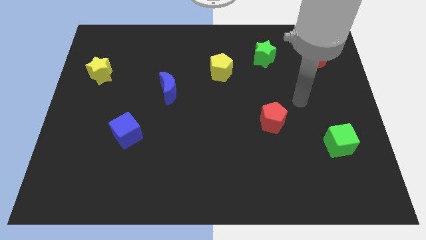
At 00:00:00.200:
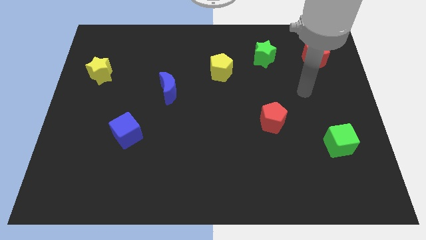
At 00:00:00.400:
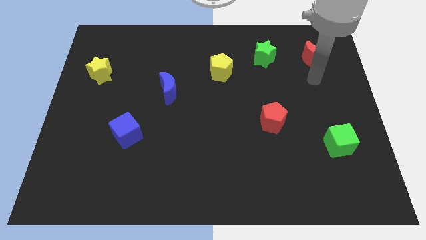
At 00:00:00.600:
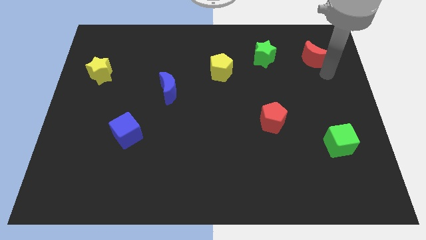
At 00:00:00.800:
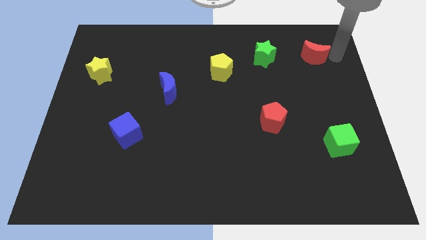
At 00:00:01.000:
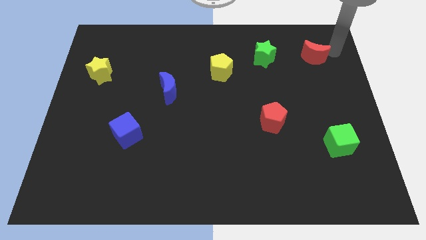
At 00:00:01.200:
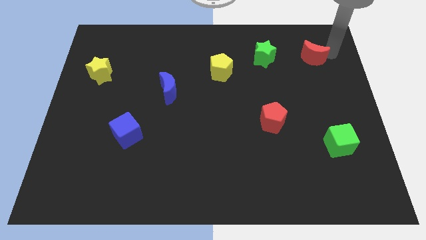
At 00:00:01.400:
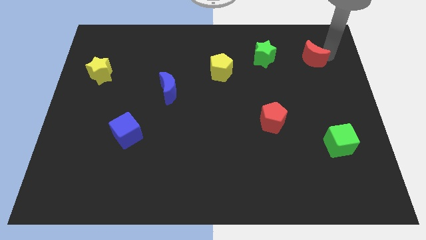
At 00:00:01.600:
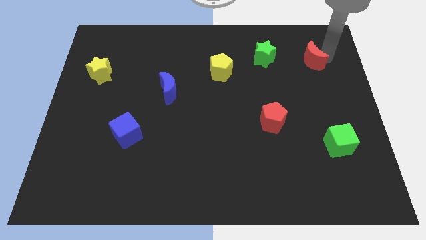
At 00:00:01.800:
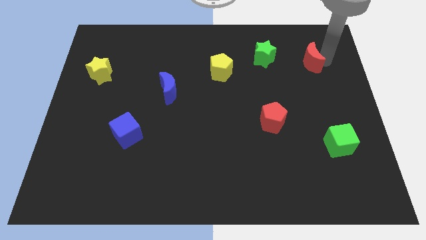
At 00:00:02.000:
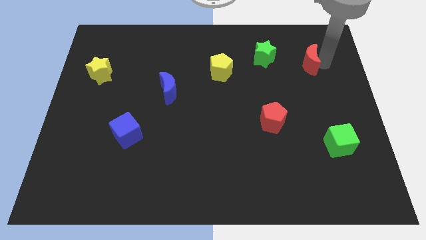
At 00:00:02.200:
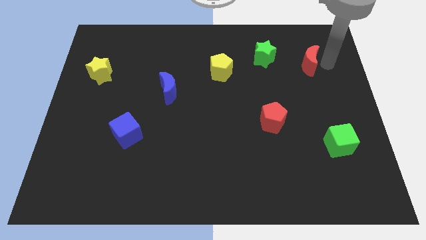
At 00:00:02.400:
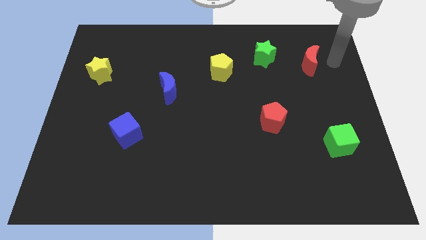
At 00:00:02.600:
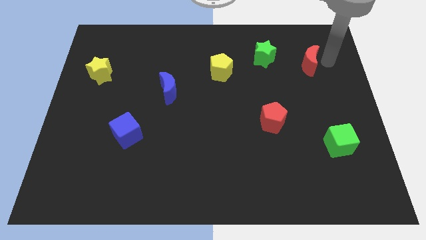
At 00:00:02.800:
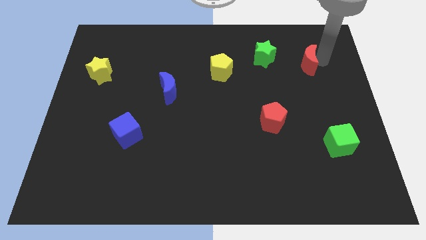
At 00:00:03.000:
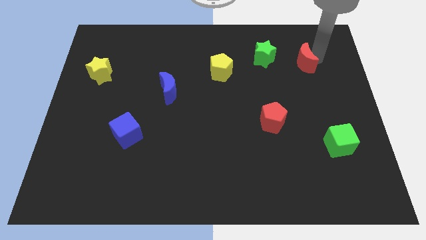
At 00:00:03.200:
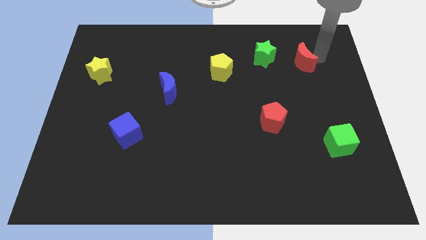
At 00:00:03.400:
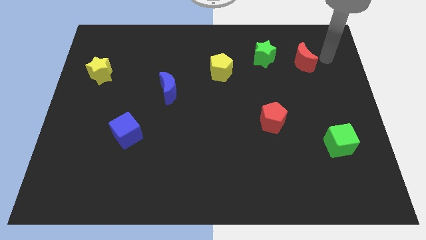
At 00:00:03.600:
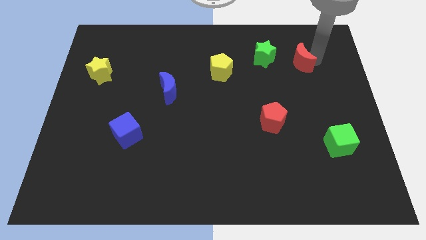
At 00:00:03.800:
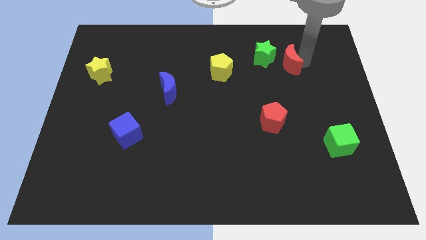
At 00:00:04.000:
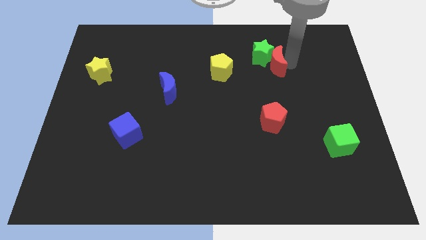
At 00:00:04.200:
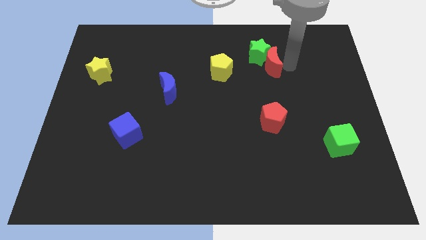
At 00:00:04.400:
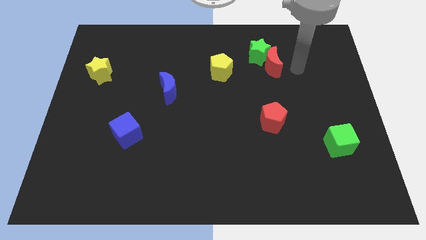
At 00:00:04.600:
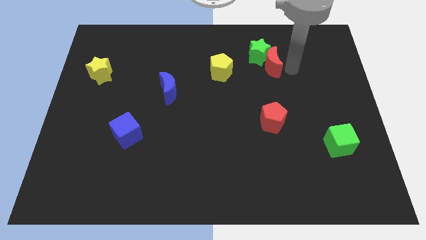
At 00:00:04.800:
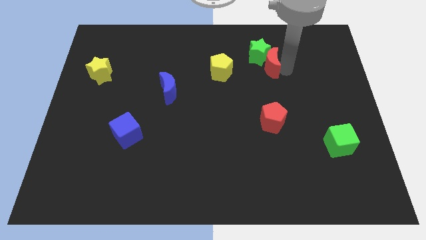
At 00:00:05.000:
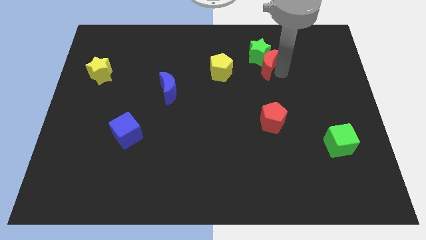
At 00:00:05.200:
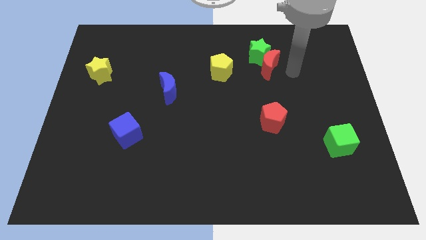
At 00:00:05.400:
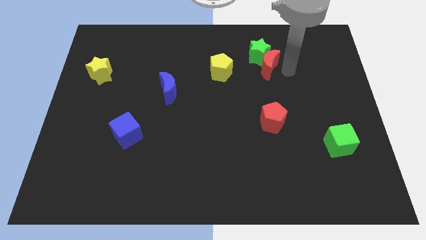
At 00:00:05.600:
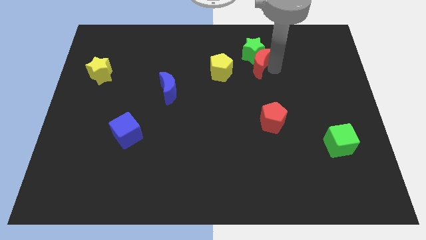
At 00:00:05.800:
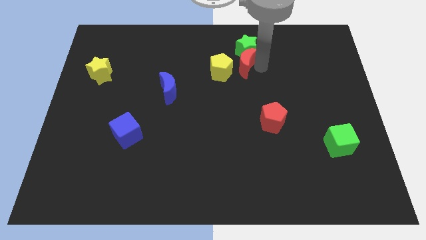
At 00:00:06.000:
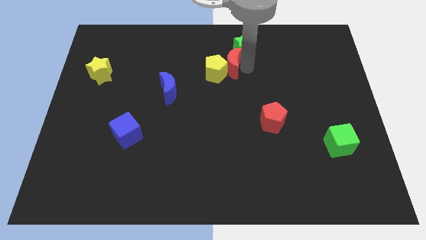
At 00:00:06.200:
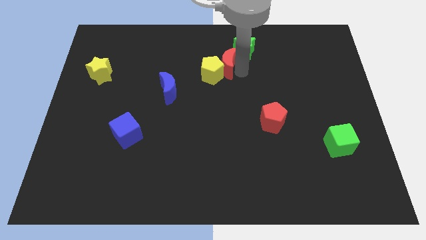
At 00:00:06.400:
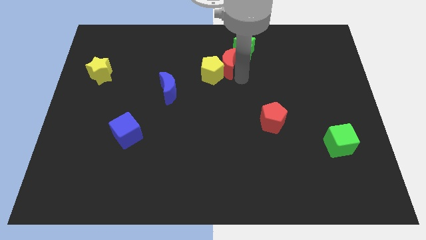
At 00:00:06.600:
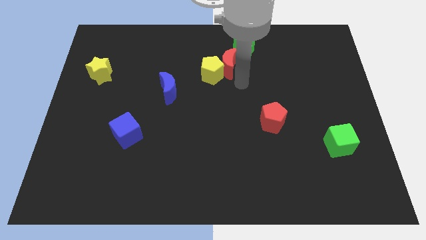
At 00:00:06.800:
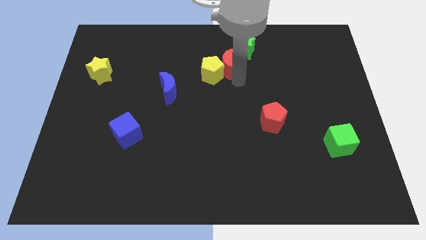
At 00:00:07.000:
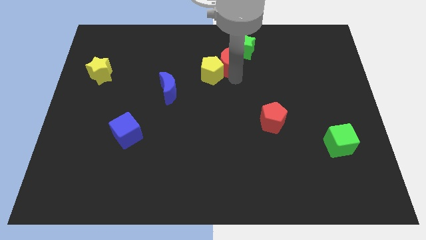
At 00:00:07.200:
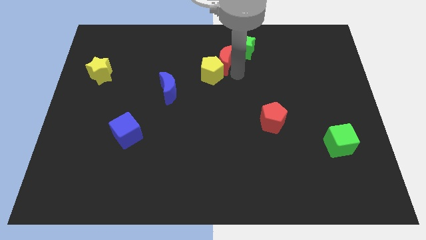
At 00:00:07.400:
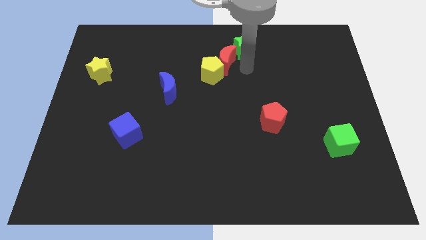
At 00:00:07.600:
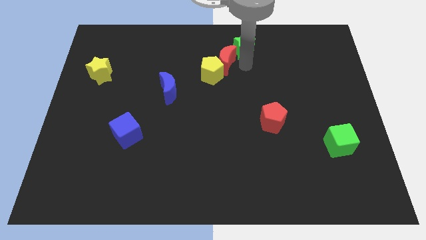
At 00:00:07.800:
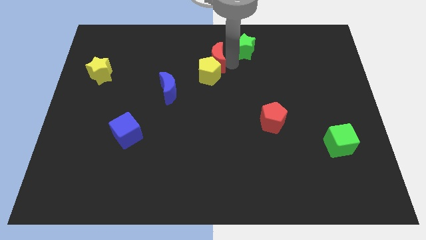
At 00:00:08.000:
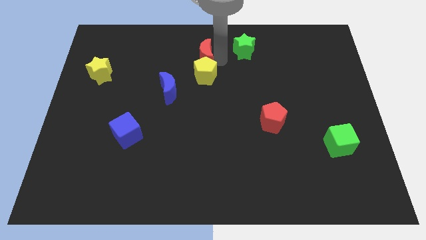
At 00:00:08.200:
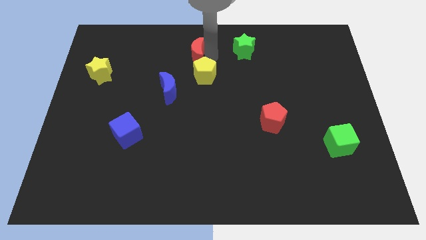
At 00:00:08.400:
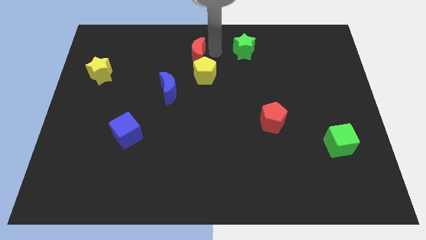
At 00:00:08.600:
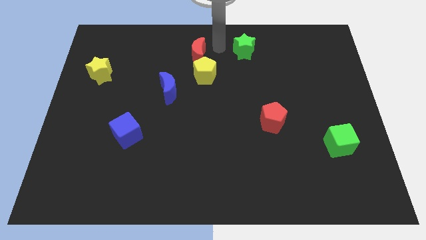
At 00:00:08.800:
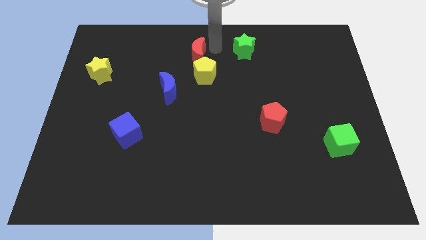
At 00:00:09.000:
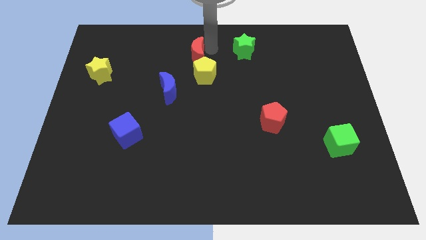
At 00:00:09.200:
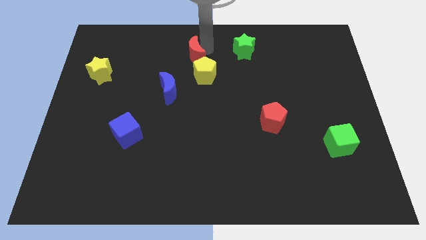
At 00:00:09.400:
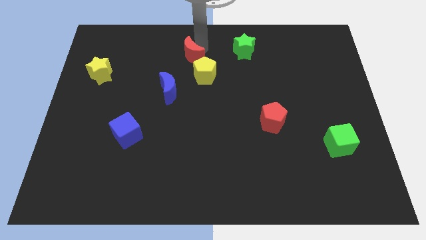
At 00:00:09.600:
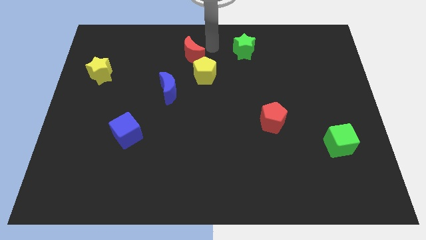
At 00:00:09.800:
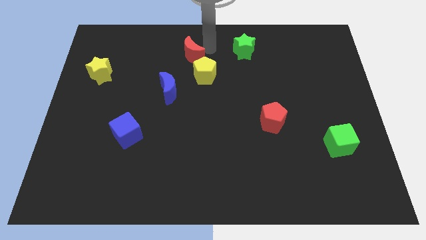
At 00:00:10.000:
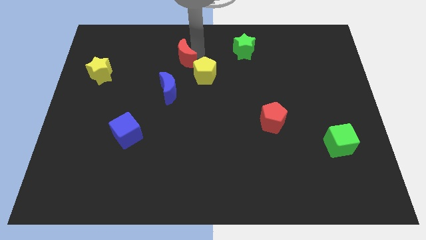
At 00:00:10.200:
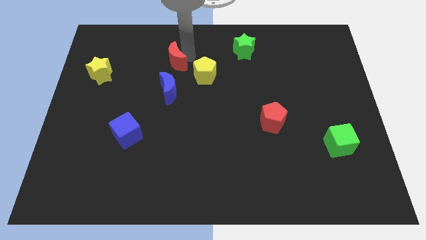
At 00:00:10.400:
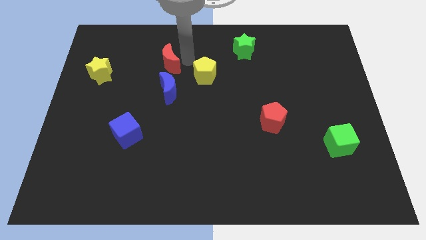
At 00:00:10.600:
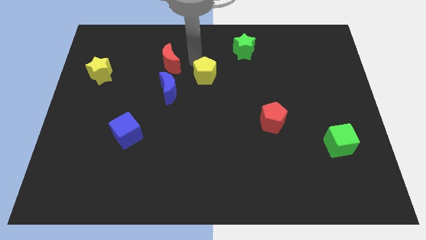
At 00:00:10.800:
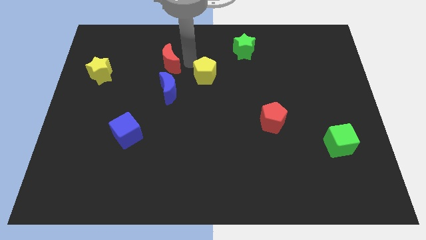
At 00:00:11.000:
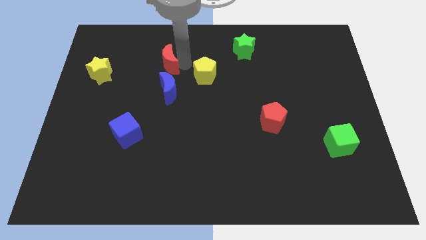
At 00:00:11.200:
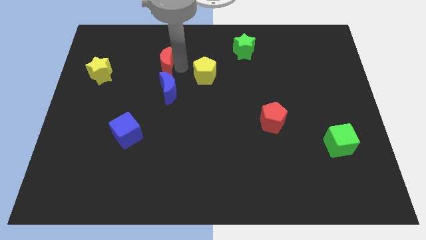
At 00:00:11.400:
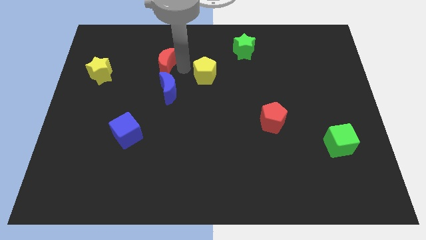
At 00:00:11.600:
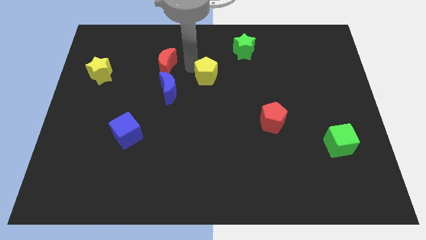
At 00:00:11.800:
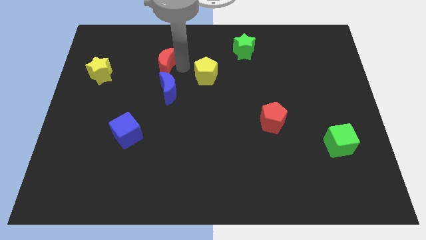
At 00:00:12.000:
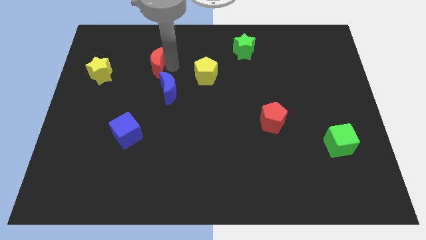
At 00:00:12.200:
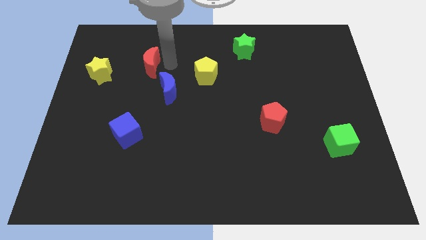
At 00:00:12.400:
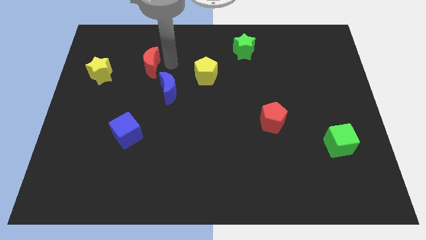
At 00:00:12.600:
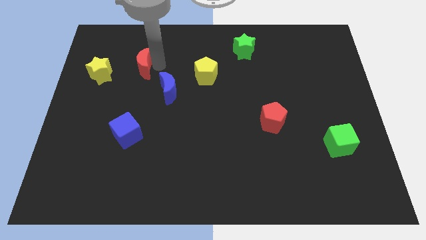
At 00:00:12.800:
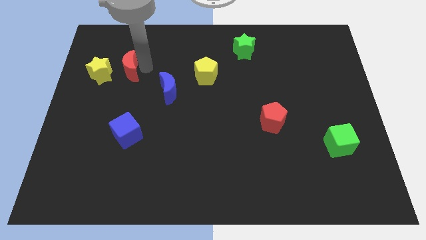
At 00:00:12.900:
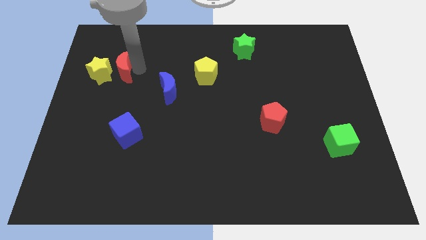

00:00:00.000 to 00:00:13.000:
slide the red moon close to the yellow star

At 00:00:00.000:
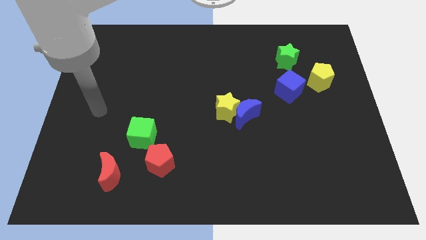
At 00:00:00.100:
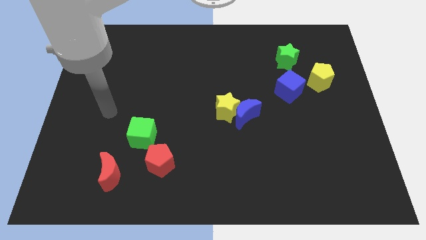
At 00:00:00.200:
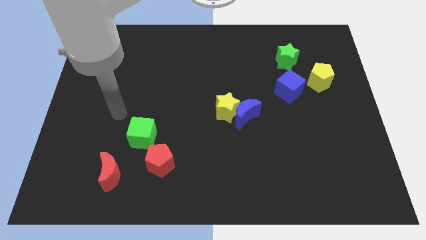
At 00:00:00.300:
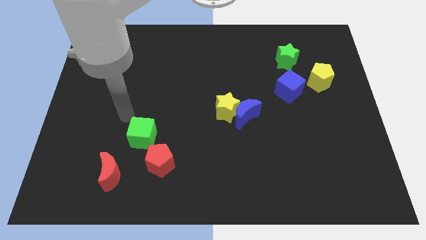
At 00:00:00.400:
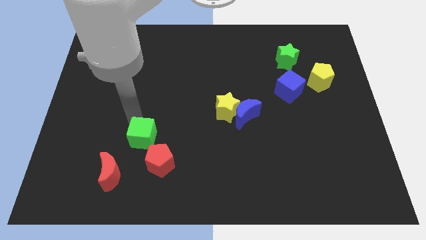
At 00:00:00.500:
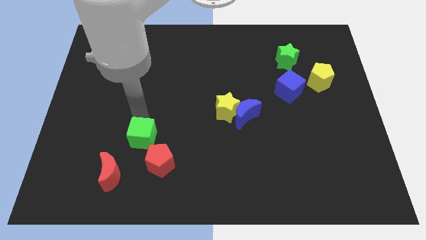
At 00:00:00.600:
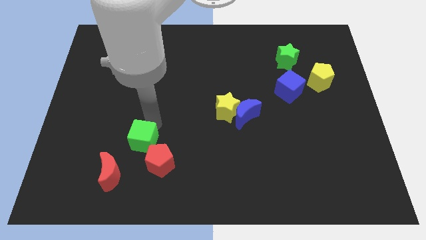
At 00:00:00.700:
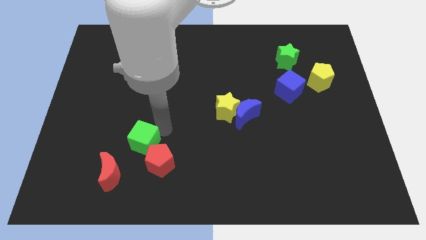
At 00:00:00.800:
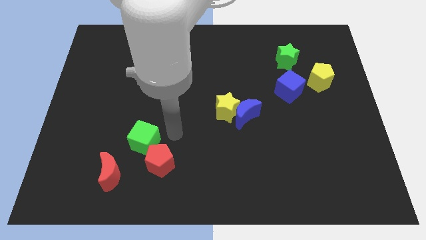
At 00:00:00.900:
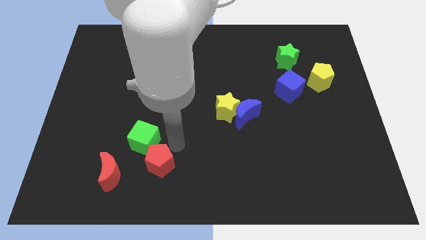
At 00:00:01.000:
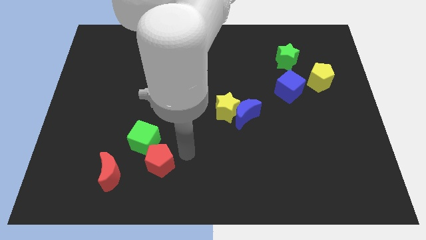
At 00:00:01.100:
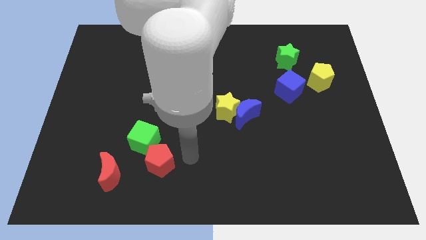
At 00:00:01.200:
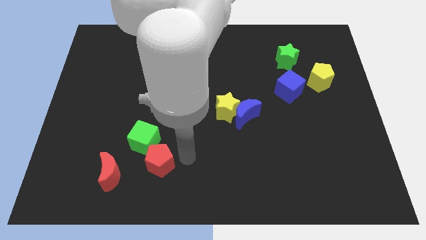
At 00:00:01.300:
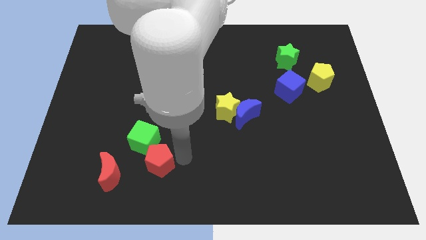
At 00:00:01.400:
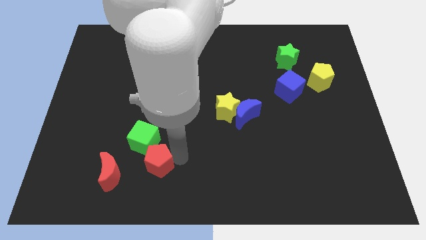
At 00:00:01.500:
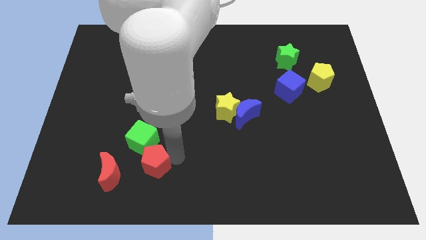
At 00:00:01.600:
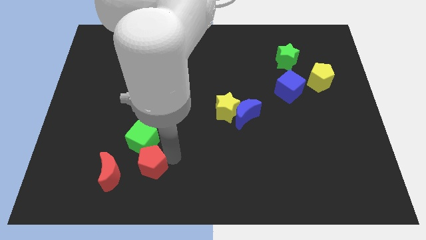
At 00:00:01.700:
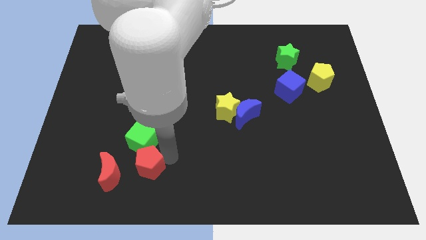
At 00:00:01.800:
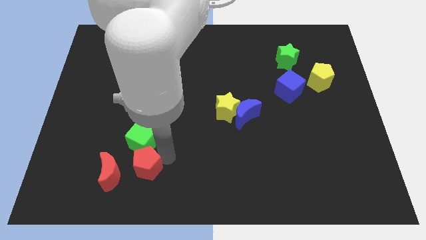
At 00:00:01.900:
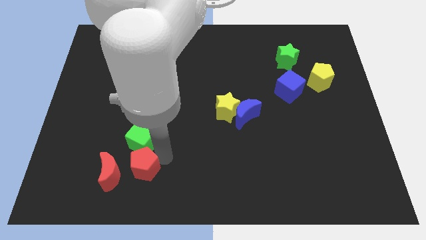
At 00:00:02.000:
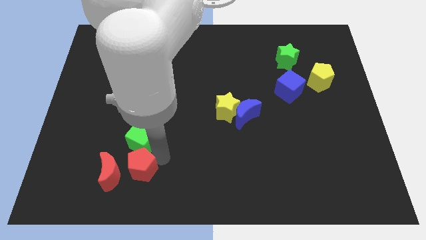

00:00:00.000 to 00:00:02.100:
slide the red pentagon next to the red moon
